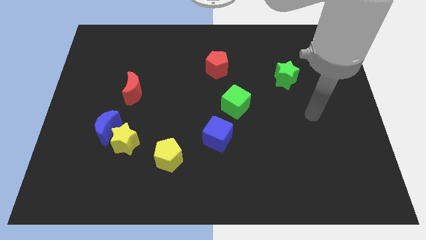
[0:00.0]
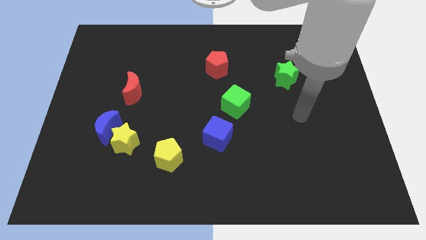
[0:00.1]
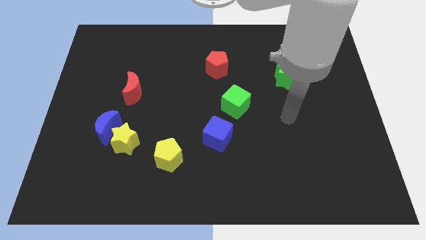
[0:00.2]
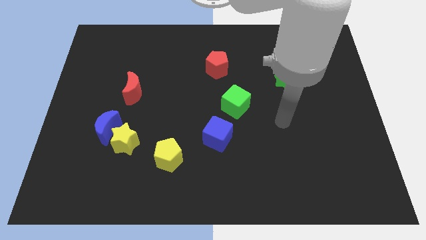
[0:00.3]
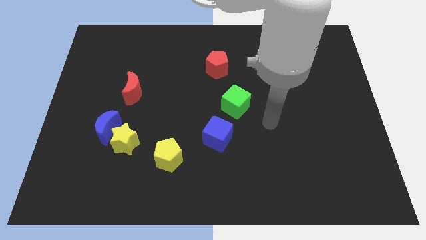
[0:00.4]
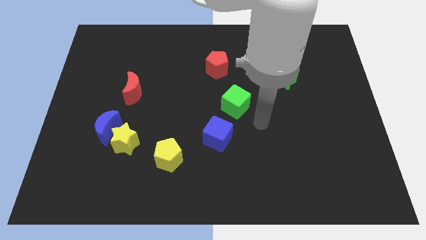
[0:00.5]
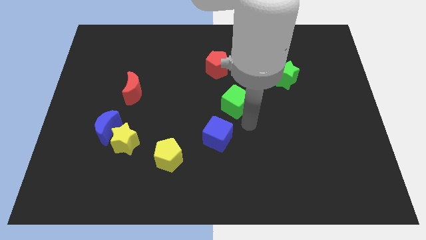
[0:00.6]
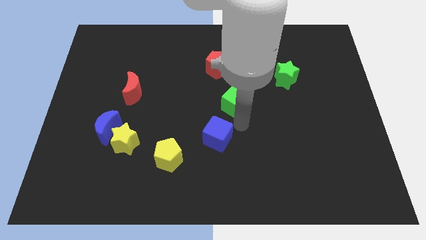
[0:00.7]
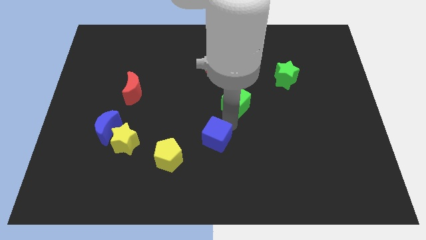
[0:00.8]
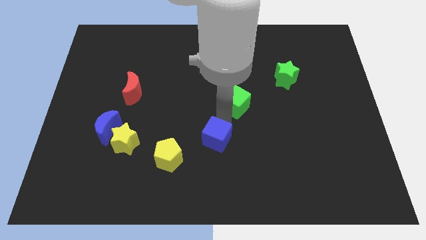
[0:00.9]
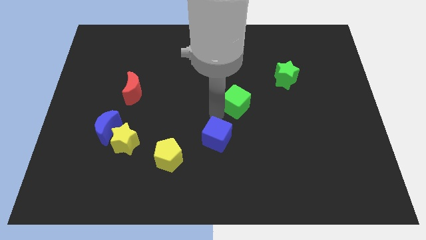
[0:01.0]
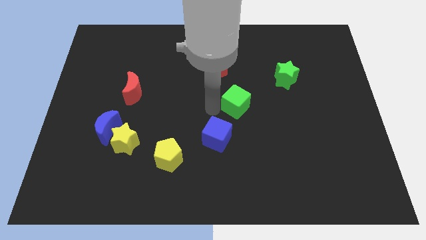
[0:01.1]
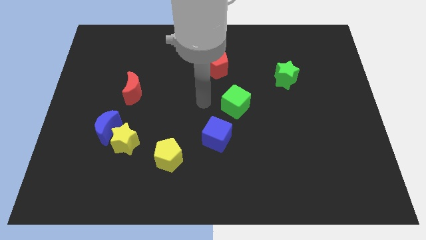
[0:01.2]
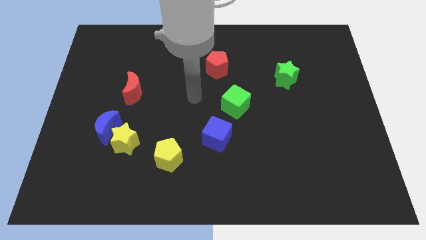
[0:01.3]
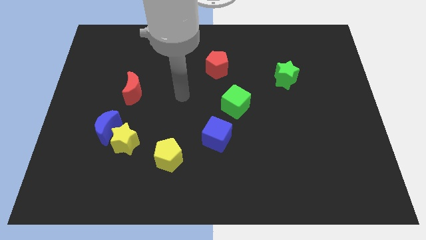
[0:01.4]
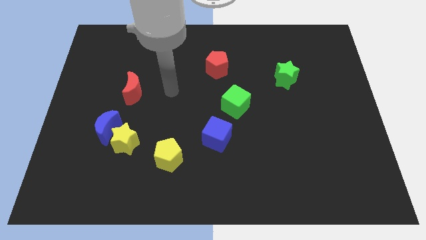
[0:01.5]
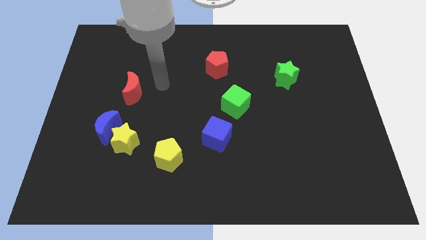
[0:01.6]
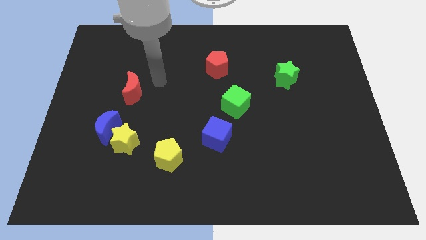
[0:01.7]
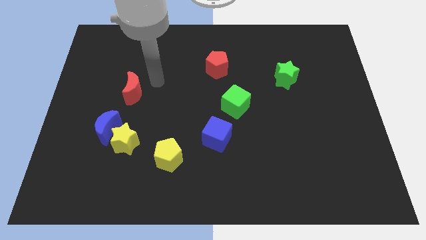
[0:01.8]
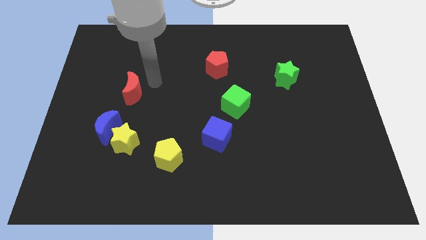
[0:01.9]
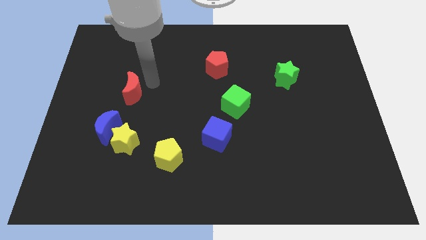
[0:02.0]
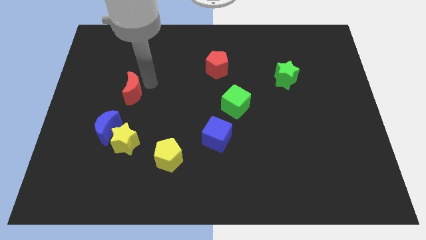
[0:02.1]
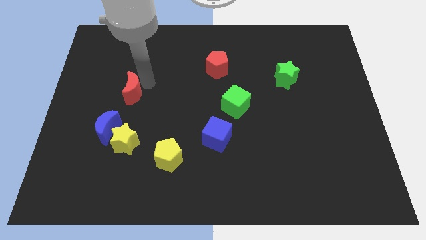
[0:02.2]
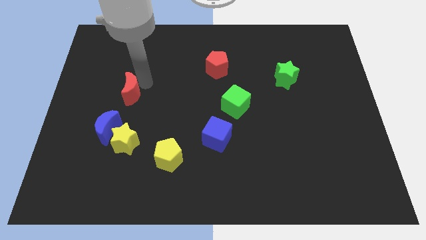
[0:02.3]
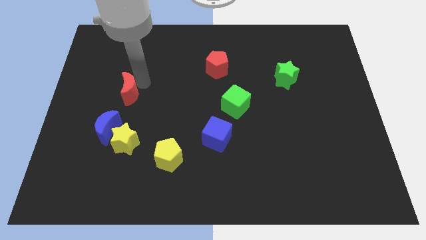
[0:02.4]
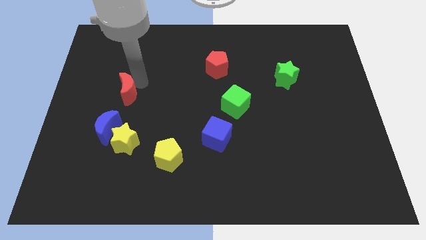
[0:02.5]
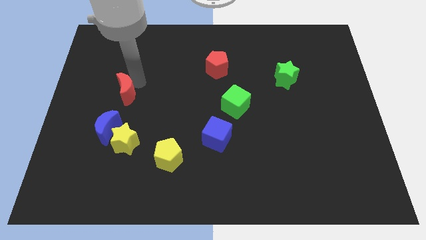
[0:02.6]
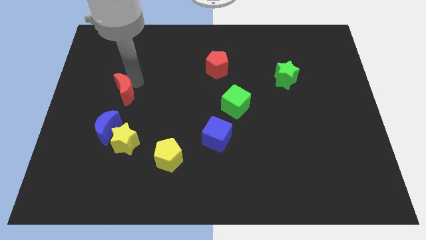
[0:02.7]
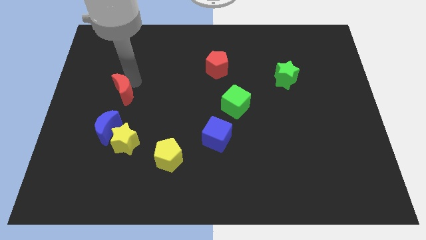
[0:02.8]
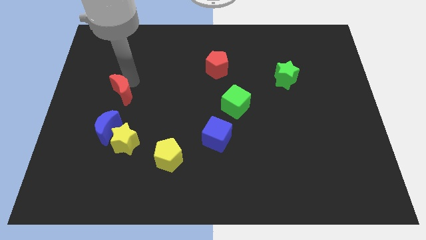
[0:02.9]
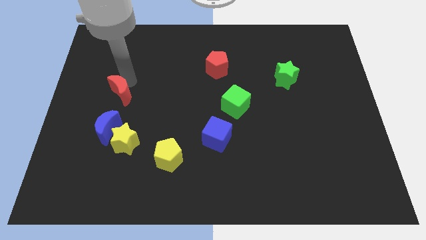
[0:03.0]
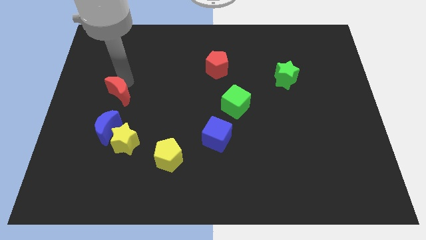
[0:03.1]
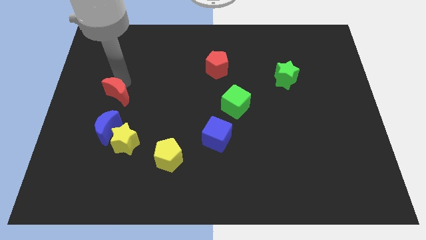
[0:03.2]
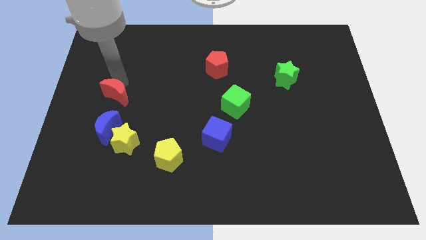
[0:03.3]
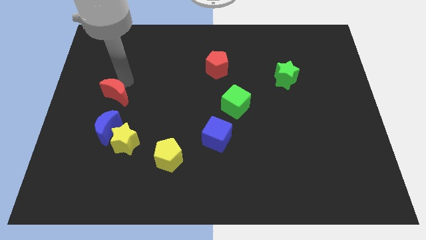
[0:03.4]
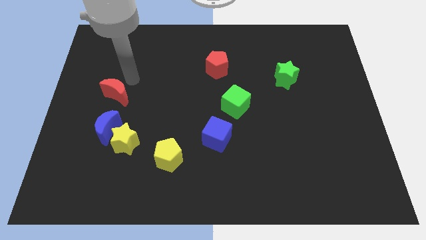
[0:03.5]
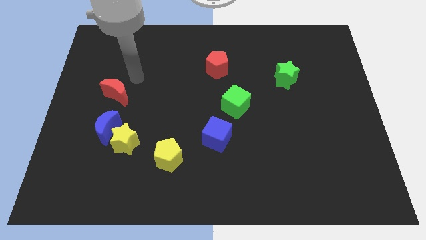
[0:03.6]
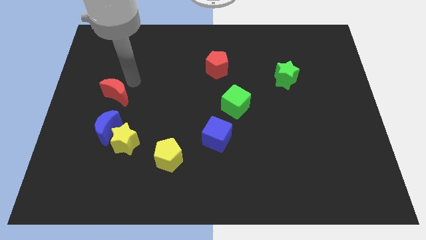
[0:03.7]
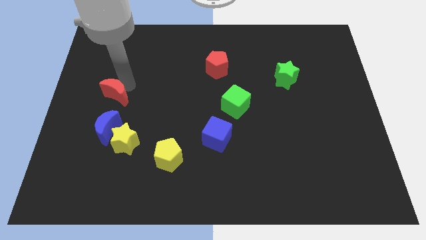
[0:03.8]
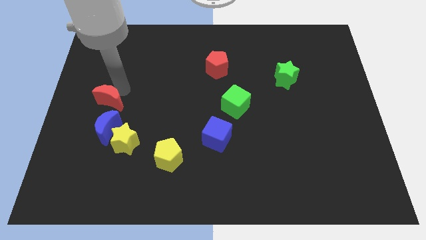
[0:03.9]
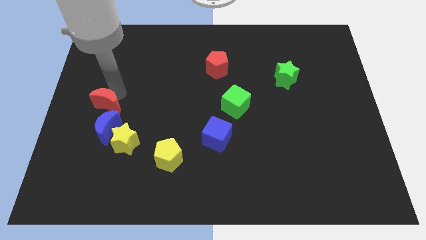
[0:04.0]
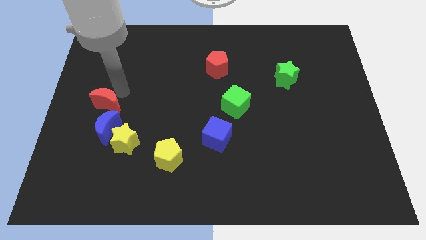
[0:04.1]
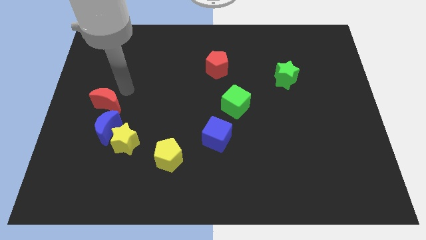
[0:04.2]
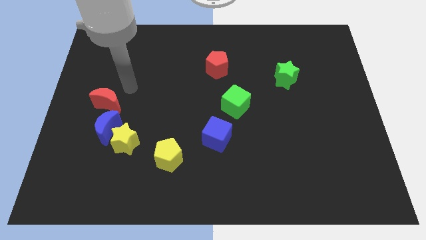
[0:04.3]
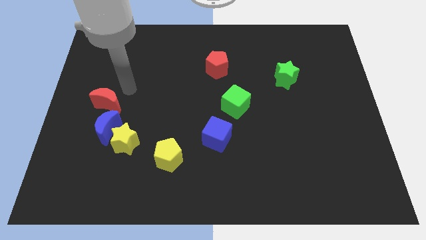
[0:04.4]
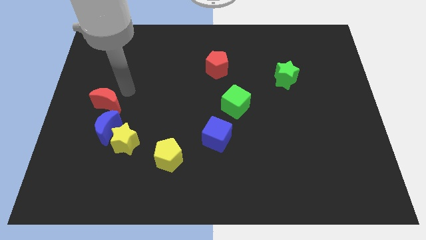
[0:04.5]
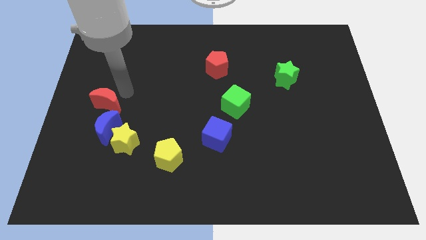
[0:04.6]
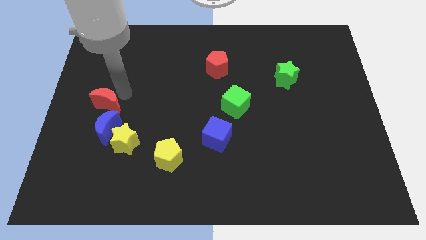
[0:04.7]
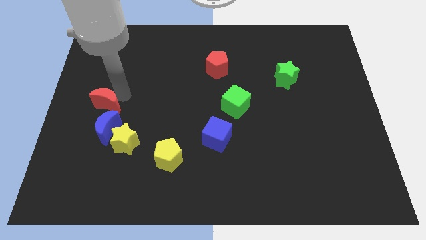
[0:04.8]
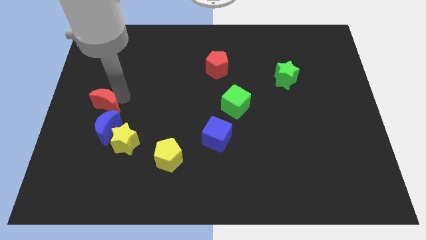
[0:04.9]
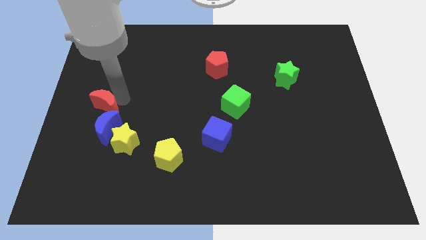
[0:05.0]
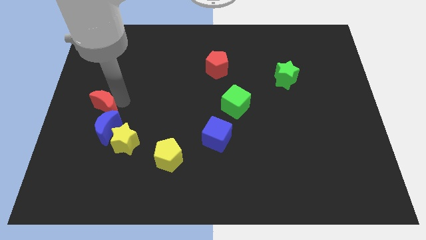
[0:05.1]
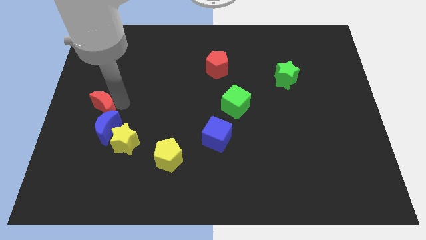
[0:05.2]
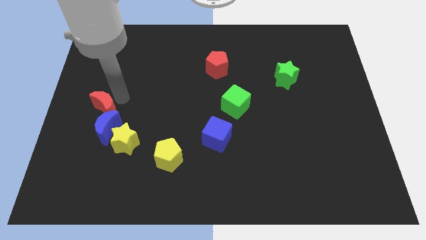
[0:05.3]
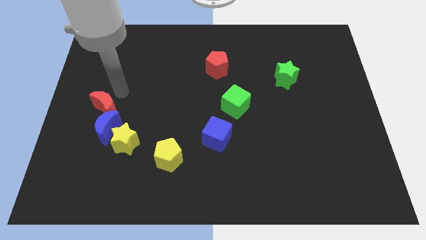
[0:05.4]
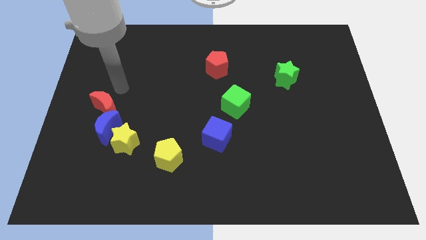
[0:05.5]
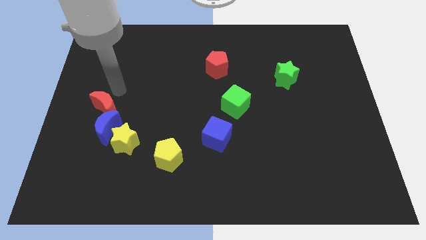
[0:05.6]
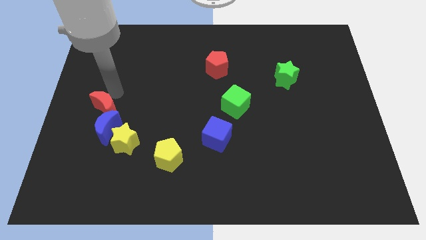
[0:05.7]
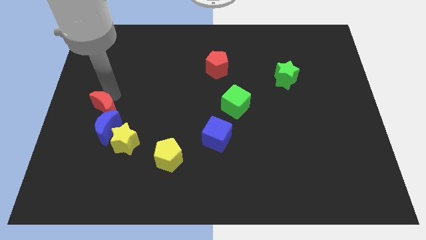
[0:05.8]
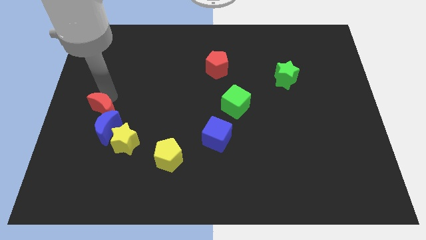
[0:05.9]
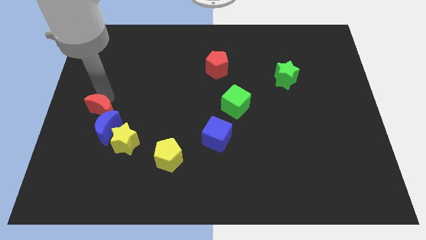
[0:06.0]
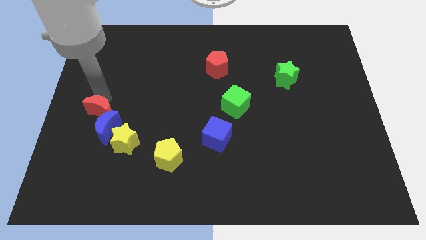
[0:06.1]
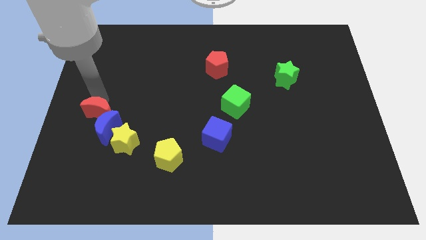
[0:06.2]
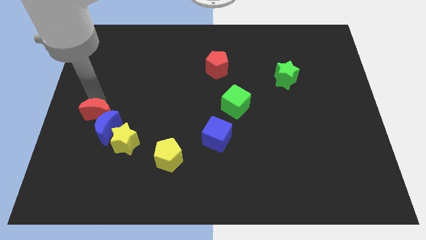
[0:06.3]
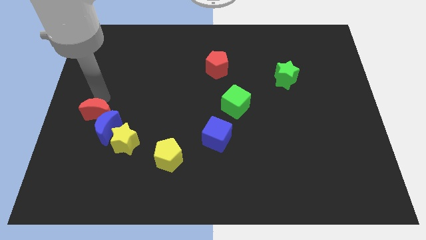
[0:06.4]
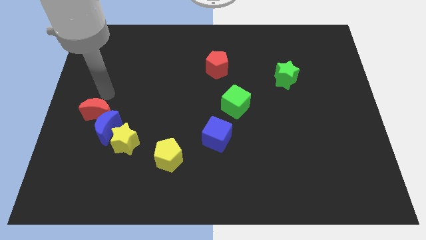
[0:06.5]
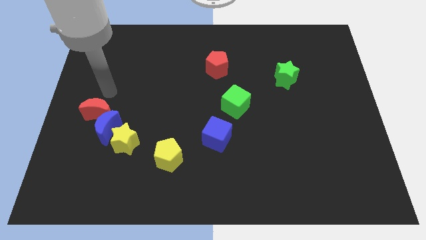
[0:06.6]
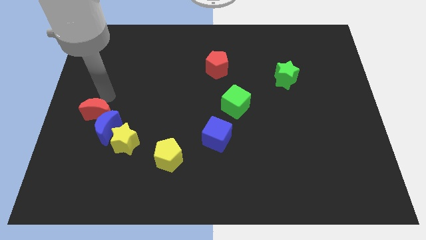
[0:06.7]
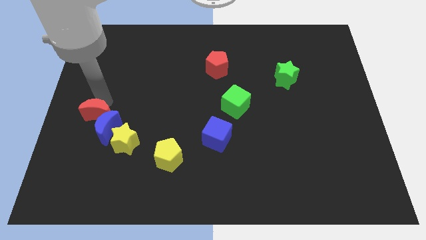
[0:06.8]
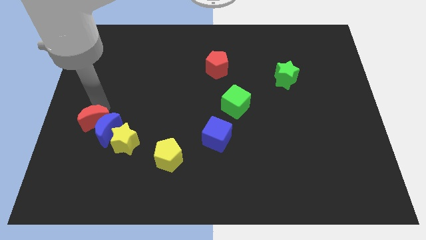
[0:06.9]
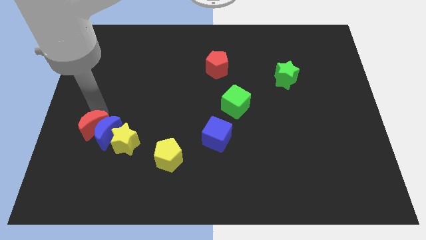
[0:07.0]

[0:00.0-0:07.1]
move the red moon somewhat down

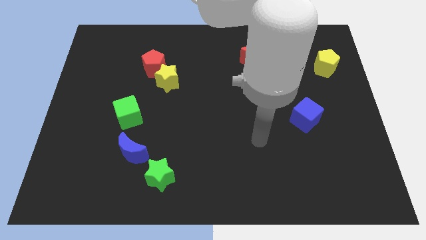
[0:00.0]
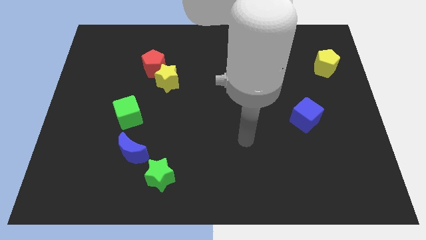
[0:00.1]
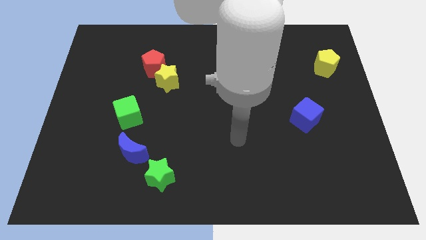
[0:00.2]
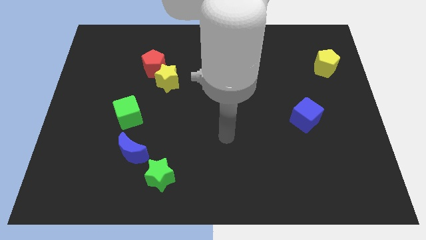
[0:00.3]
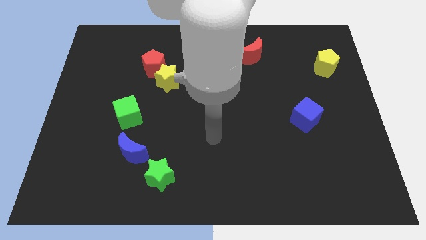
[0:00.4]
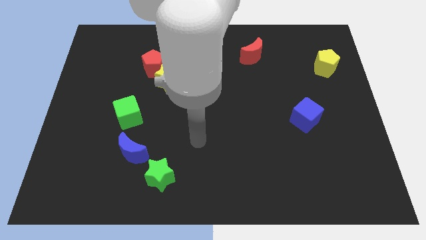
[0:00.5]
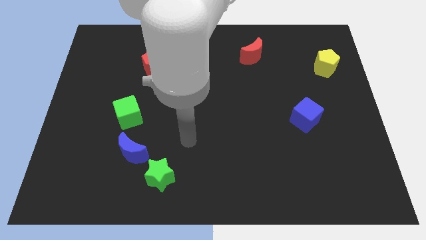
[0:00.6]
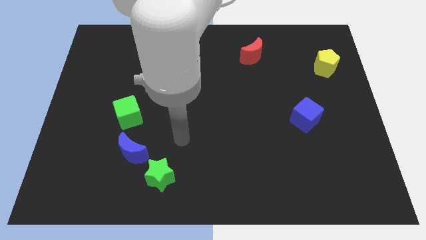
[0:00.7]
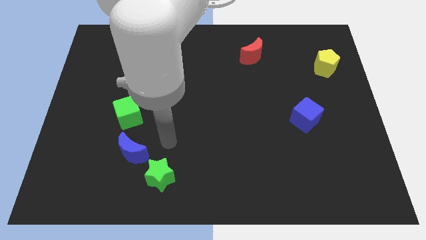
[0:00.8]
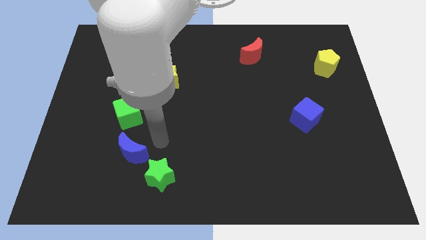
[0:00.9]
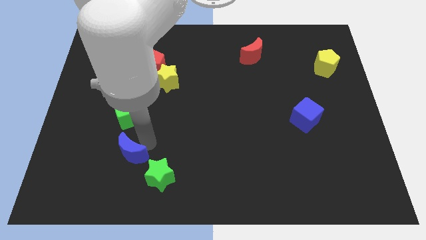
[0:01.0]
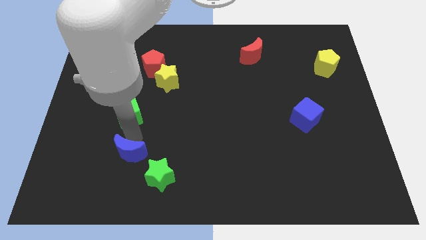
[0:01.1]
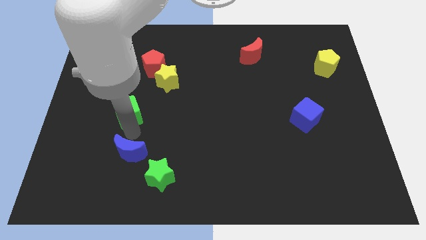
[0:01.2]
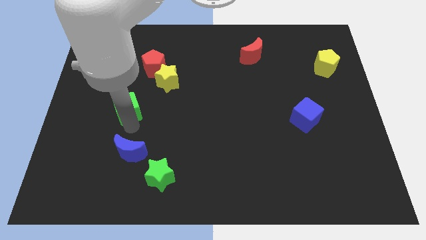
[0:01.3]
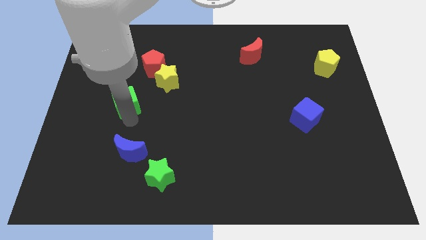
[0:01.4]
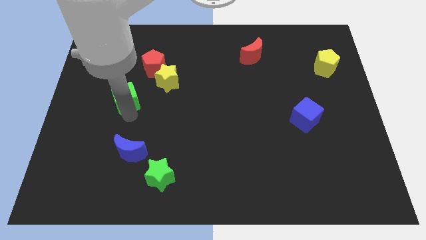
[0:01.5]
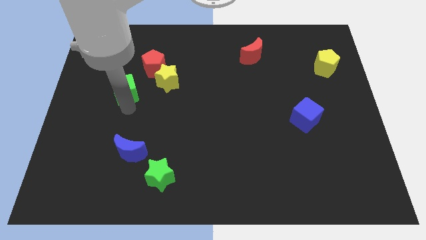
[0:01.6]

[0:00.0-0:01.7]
slide the green cube slightly upwards
